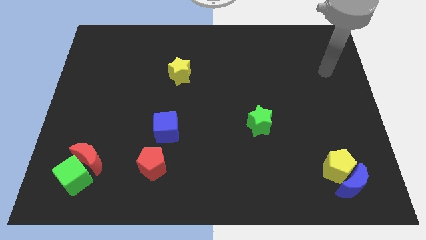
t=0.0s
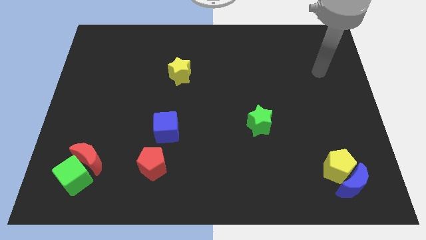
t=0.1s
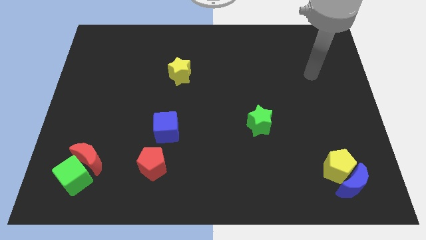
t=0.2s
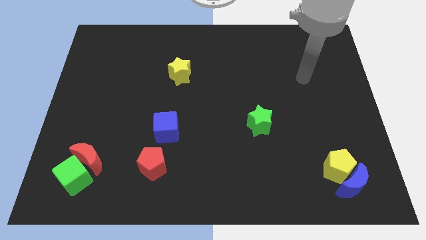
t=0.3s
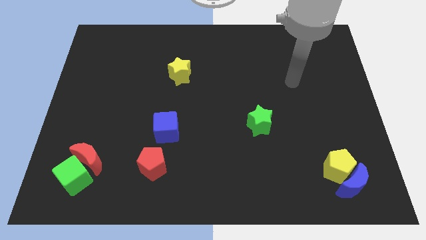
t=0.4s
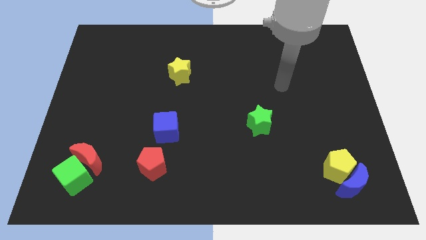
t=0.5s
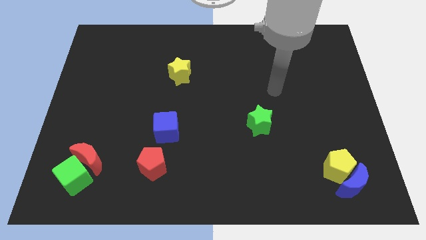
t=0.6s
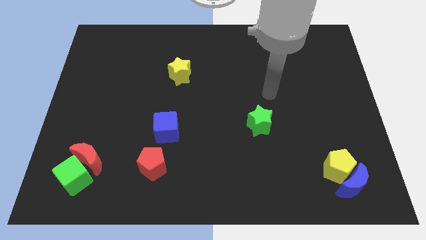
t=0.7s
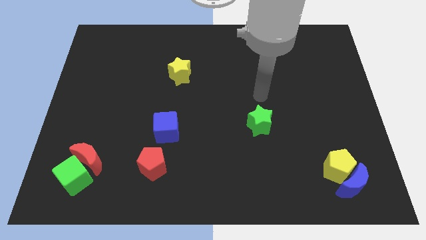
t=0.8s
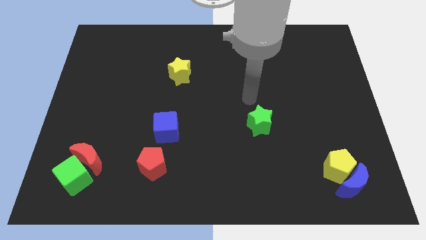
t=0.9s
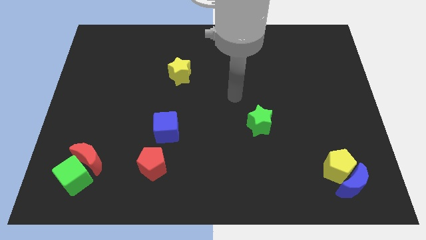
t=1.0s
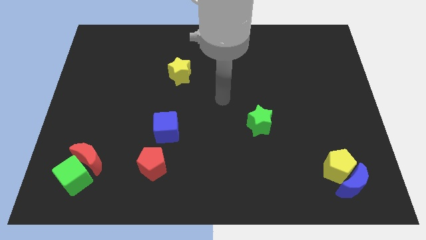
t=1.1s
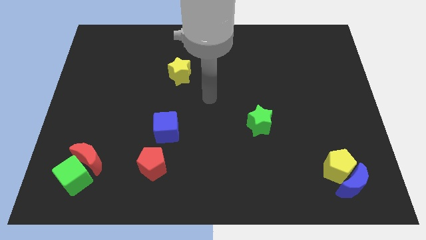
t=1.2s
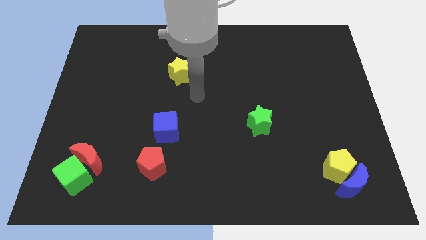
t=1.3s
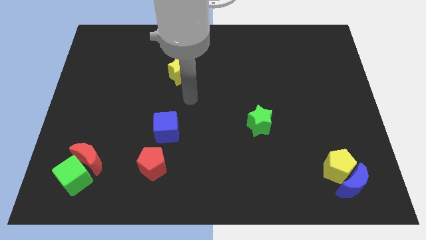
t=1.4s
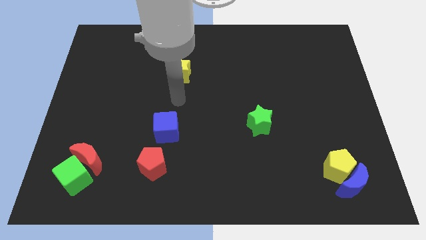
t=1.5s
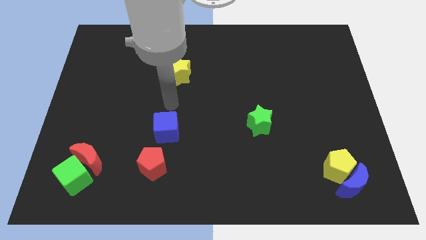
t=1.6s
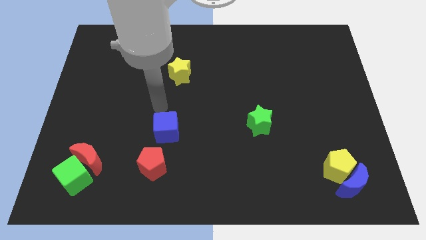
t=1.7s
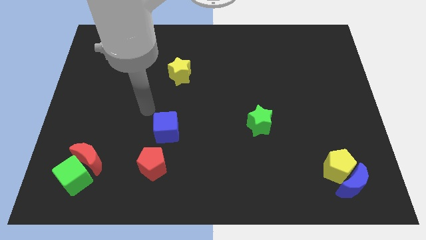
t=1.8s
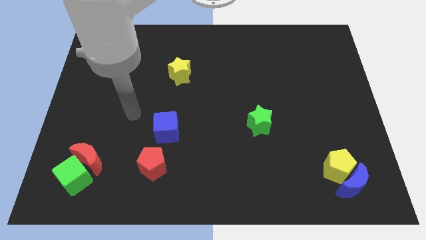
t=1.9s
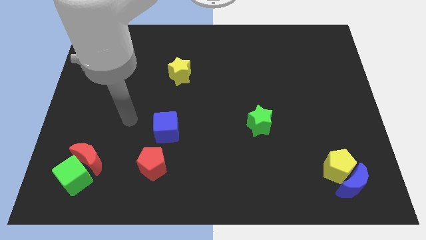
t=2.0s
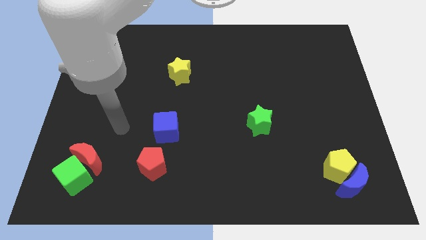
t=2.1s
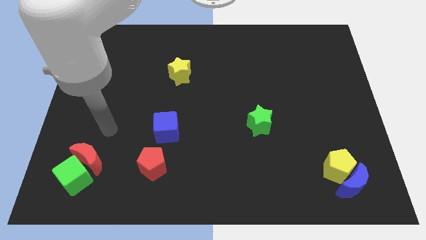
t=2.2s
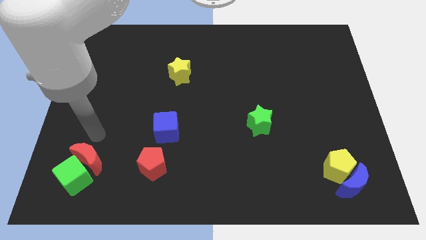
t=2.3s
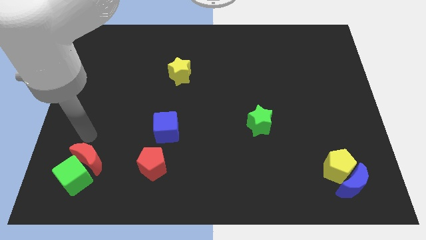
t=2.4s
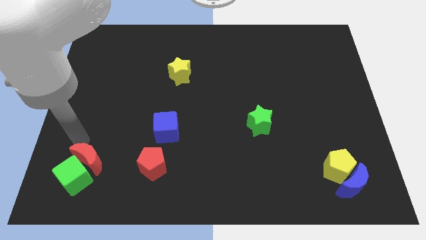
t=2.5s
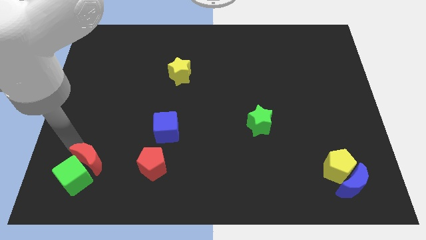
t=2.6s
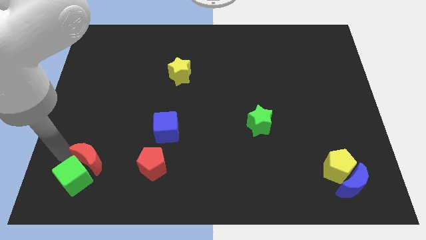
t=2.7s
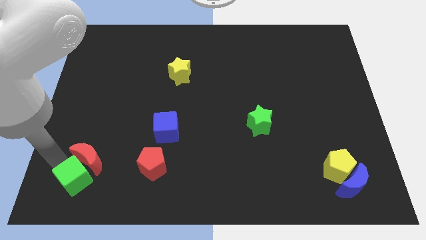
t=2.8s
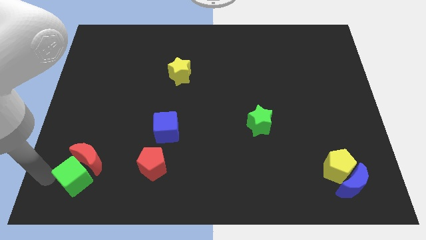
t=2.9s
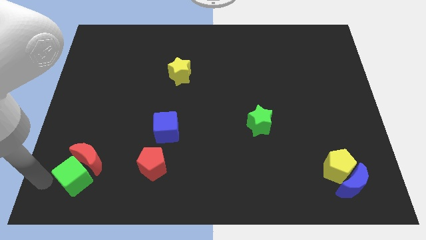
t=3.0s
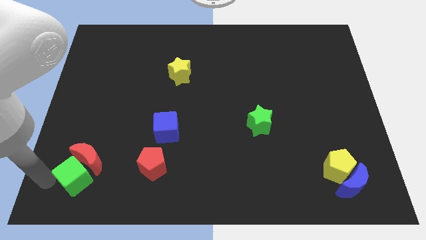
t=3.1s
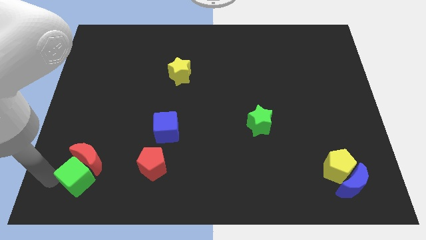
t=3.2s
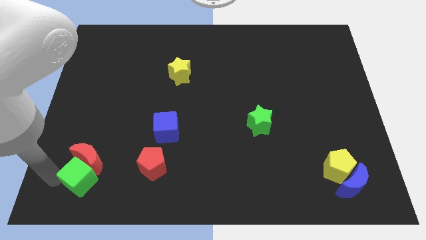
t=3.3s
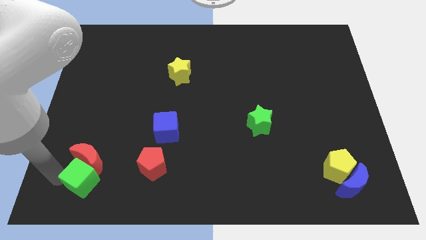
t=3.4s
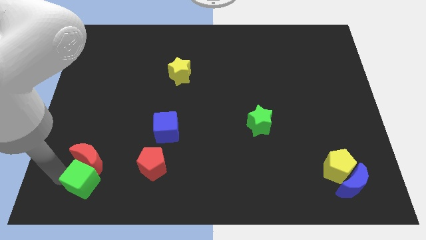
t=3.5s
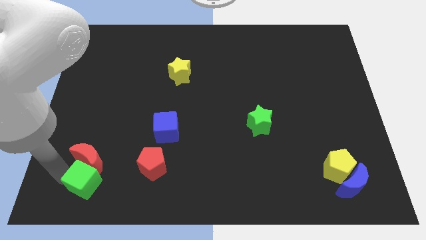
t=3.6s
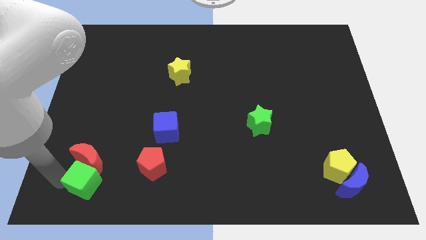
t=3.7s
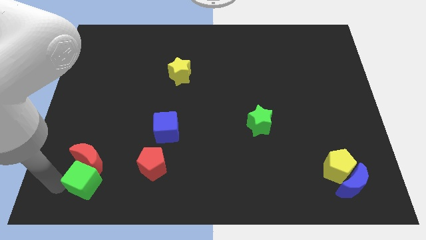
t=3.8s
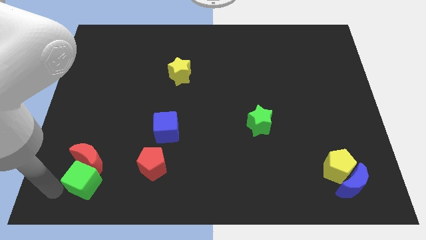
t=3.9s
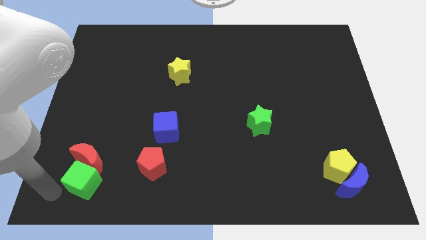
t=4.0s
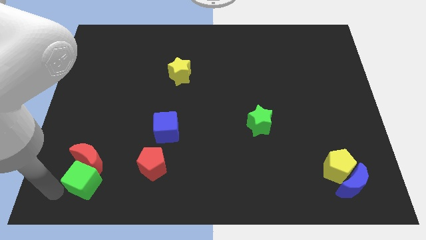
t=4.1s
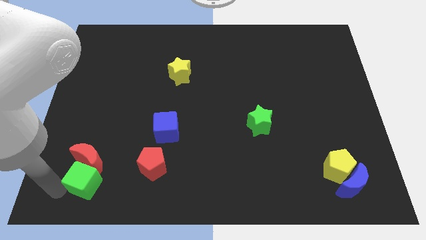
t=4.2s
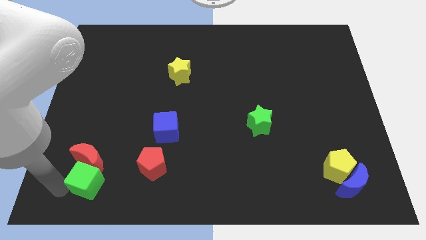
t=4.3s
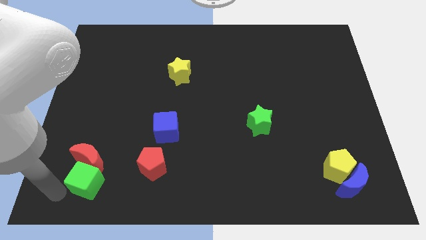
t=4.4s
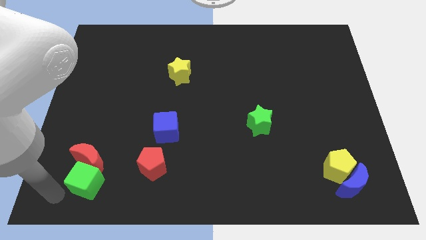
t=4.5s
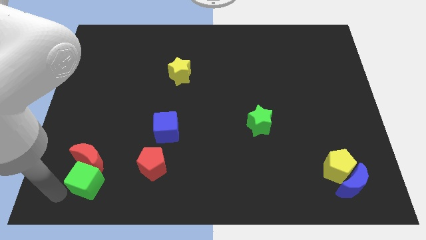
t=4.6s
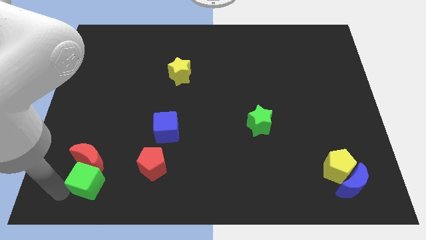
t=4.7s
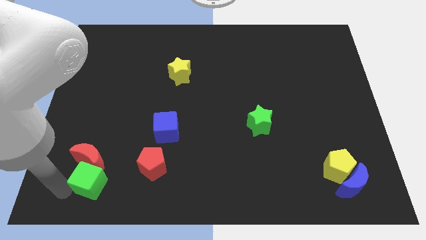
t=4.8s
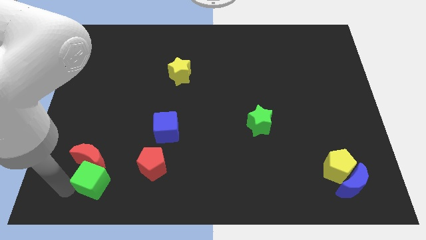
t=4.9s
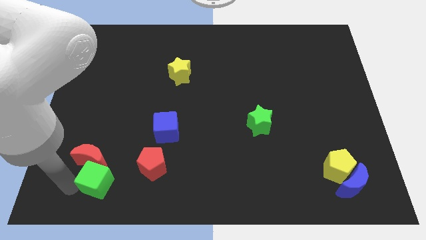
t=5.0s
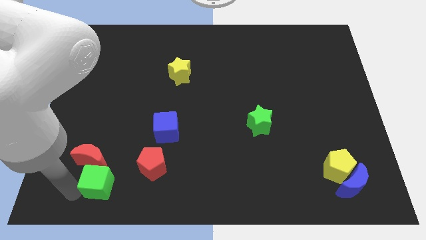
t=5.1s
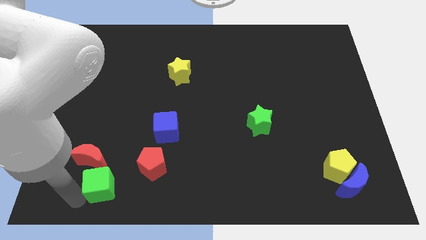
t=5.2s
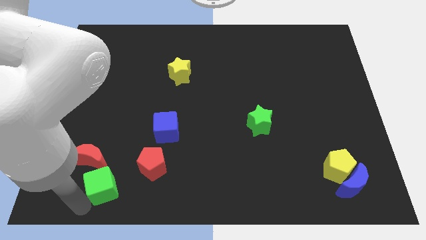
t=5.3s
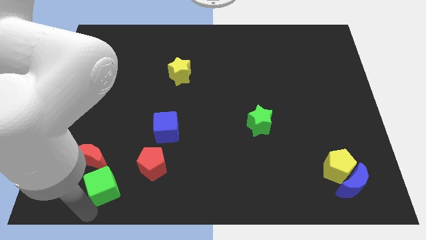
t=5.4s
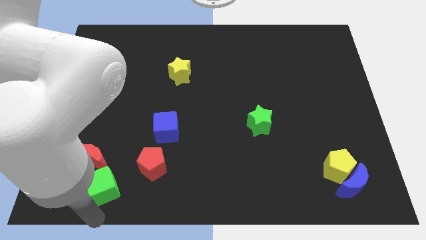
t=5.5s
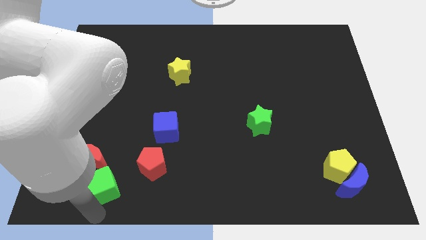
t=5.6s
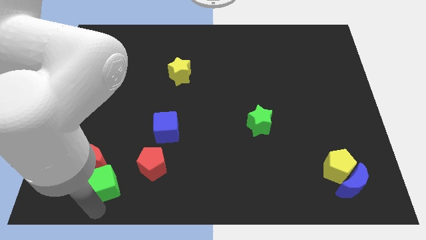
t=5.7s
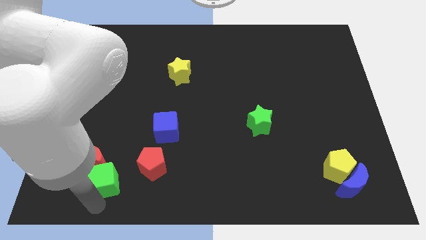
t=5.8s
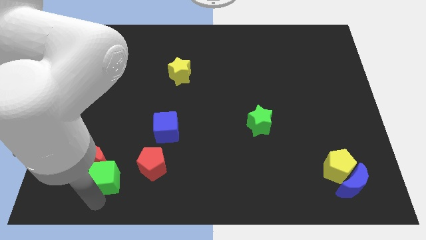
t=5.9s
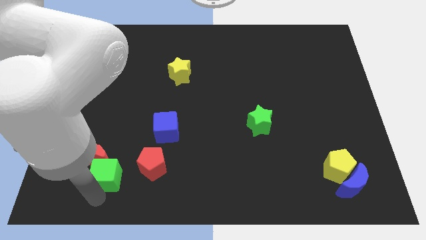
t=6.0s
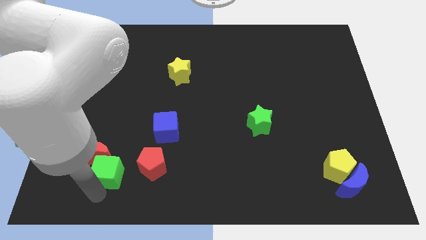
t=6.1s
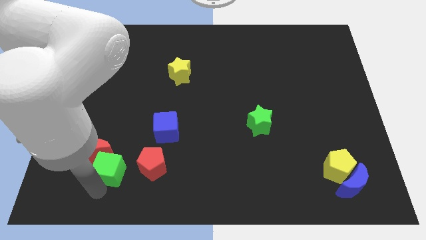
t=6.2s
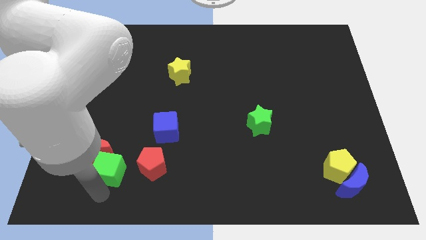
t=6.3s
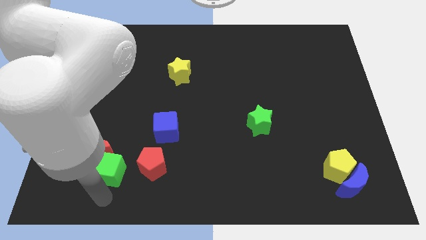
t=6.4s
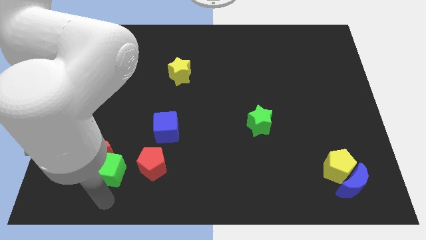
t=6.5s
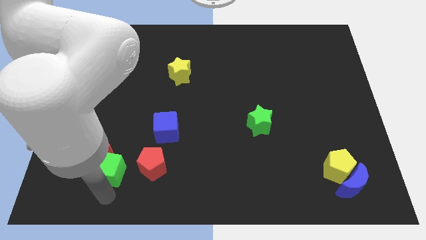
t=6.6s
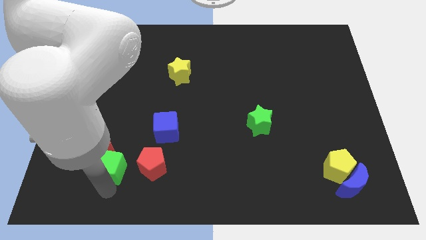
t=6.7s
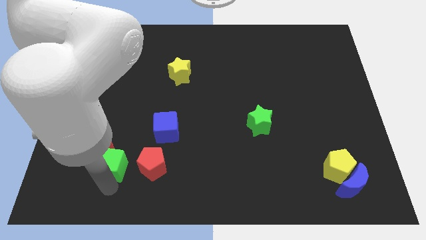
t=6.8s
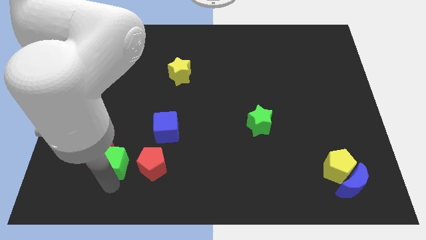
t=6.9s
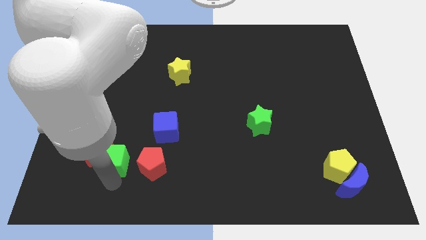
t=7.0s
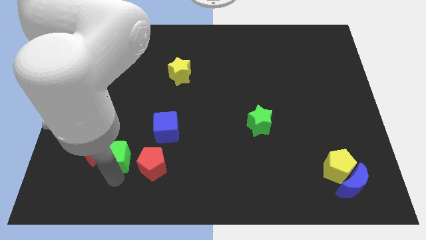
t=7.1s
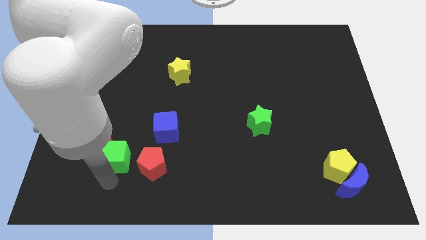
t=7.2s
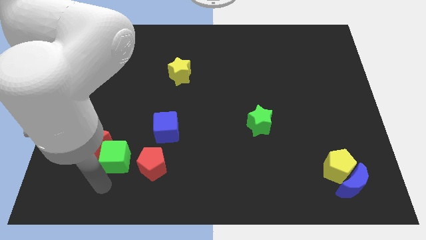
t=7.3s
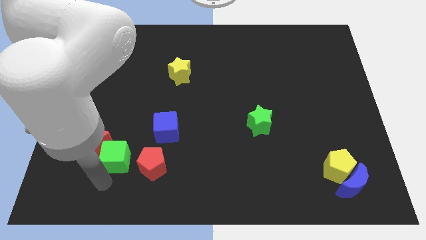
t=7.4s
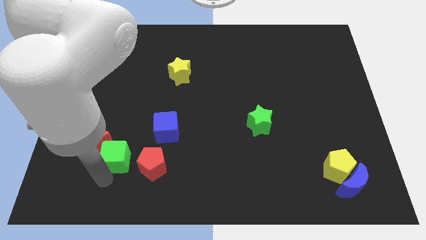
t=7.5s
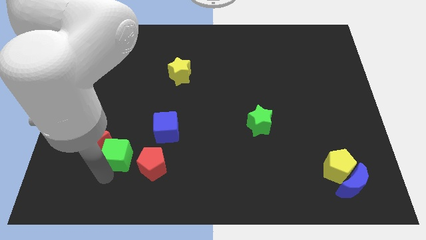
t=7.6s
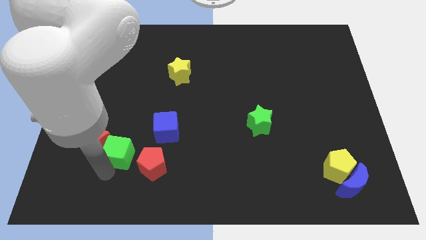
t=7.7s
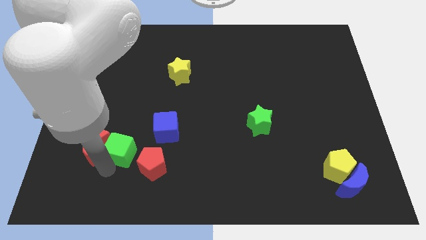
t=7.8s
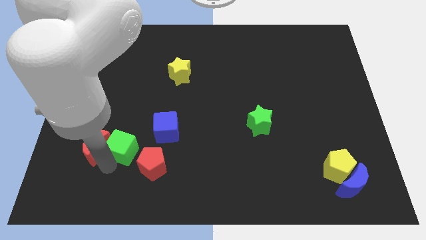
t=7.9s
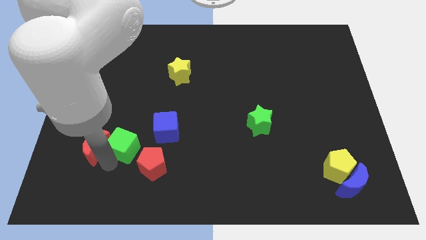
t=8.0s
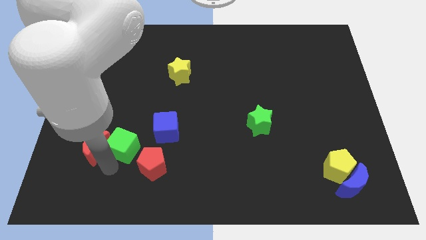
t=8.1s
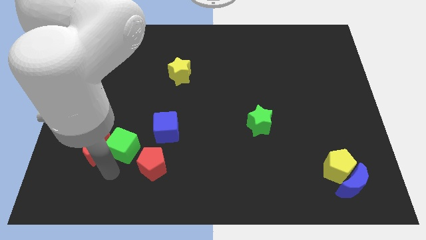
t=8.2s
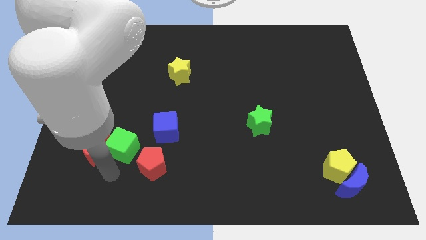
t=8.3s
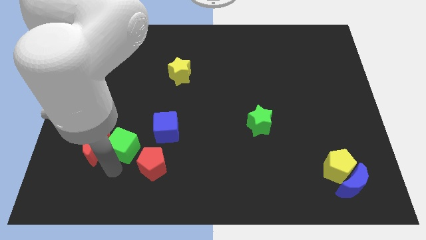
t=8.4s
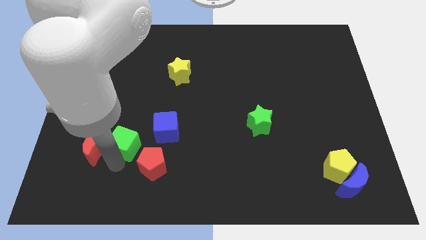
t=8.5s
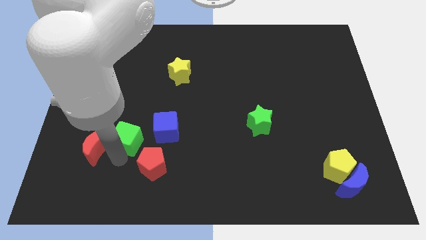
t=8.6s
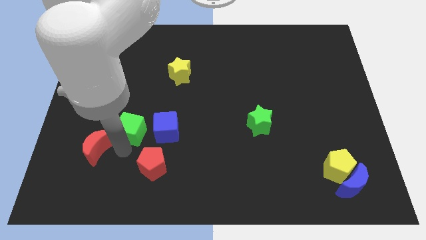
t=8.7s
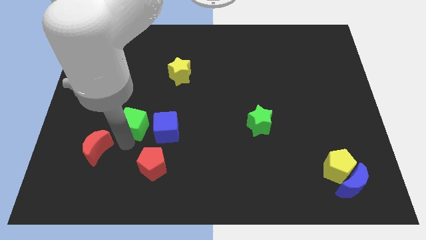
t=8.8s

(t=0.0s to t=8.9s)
slide the green cube diagonally up and to the left of the blue cube
